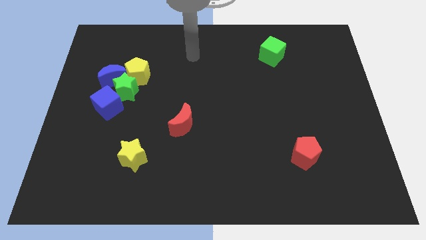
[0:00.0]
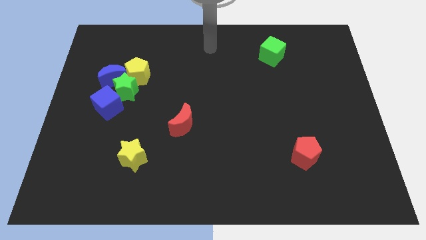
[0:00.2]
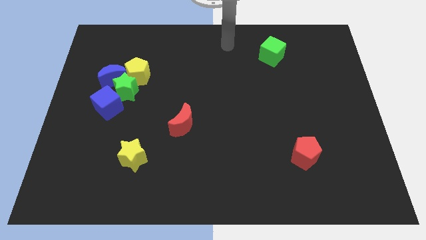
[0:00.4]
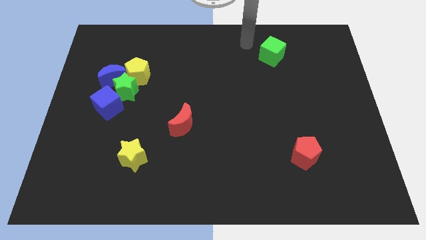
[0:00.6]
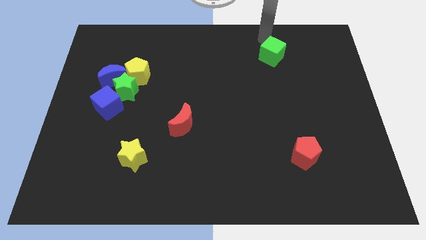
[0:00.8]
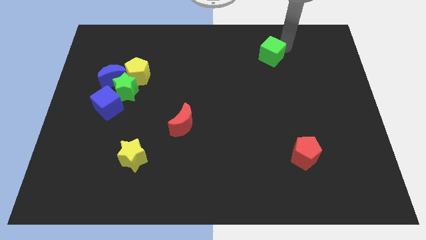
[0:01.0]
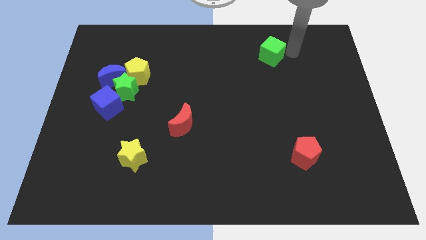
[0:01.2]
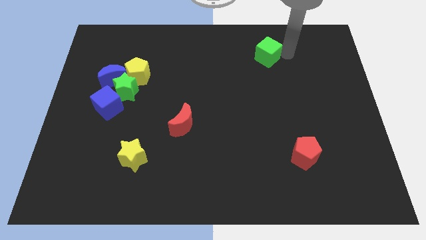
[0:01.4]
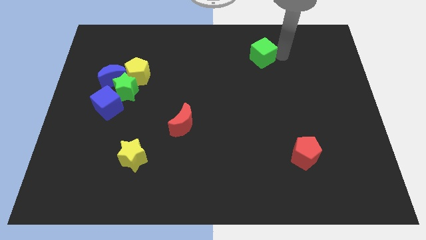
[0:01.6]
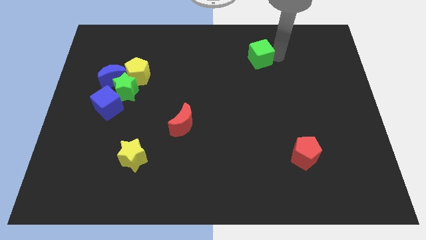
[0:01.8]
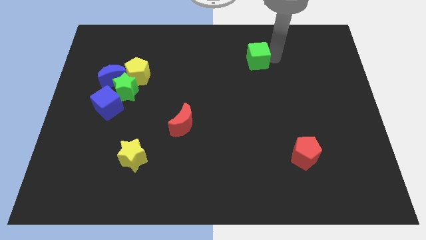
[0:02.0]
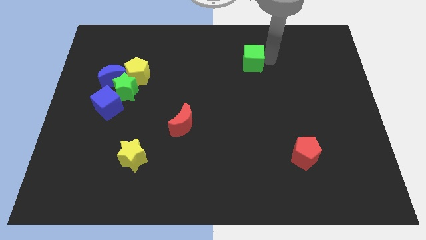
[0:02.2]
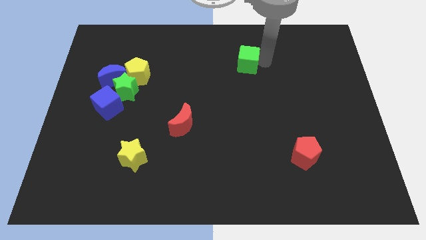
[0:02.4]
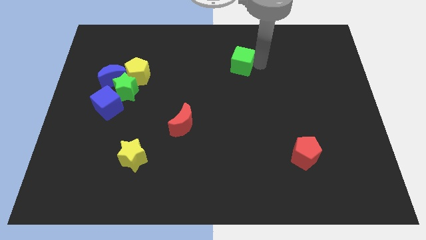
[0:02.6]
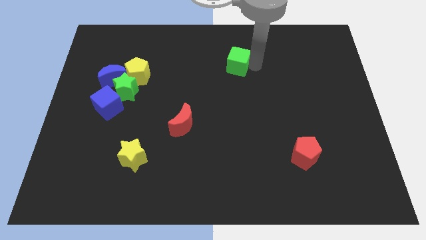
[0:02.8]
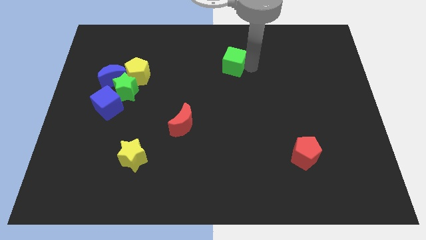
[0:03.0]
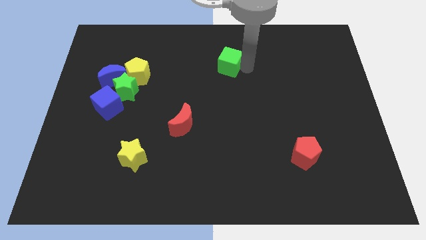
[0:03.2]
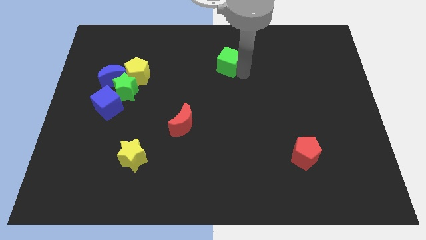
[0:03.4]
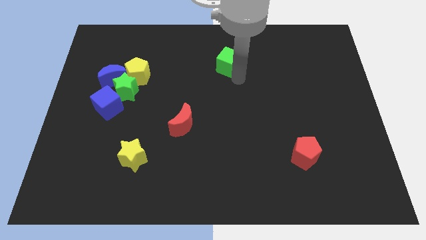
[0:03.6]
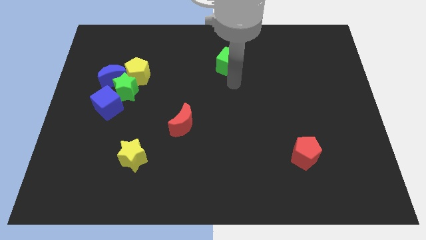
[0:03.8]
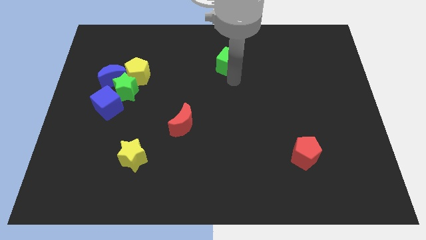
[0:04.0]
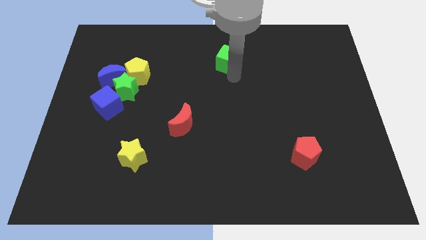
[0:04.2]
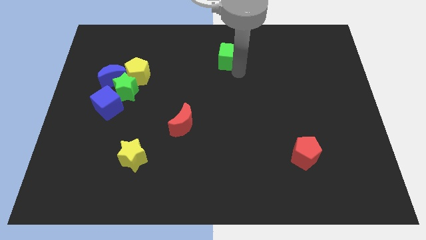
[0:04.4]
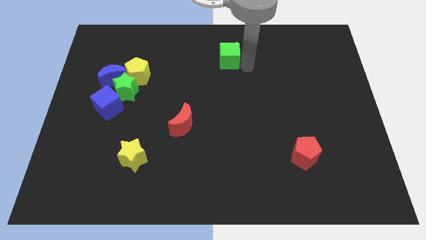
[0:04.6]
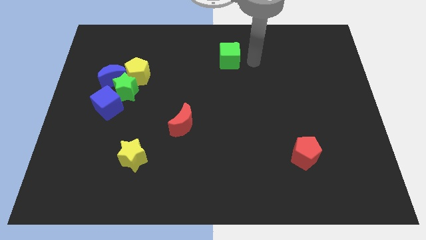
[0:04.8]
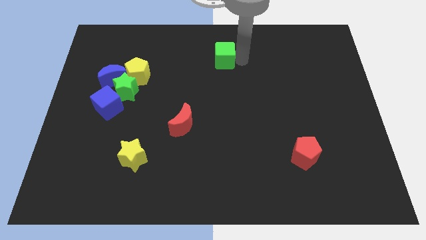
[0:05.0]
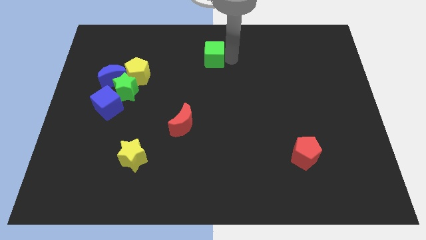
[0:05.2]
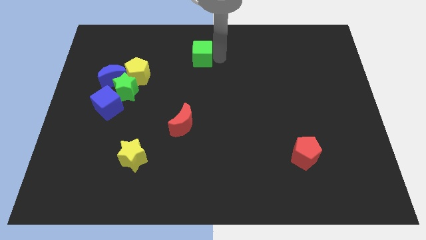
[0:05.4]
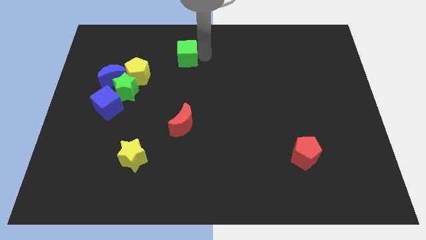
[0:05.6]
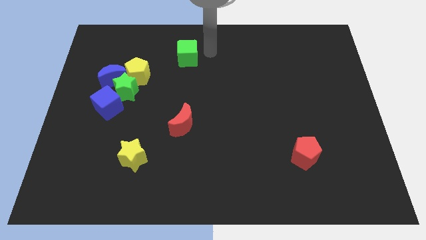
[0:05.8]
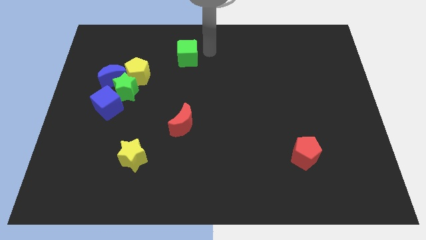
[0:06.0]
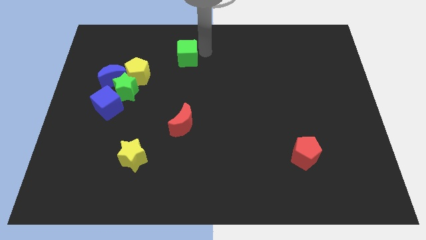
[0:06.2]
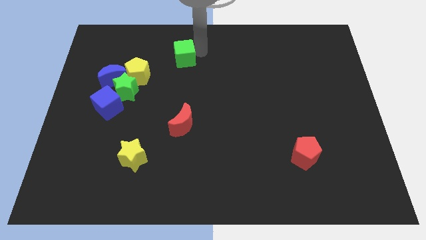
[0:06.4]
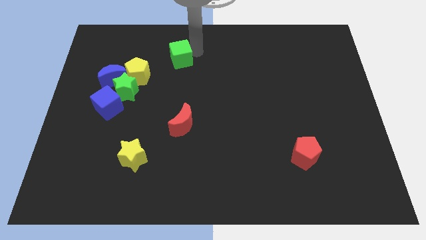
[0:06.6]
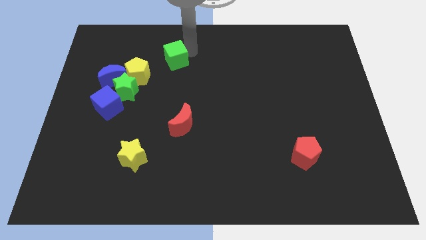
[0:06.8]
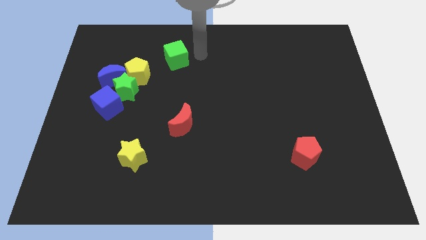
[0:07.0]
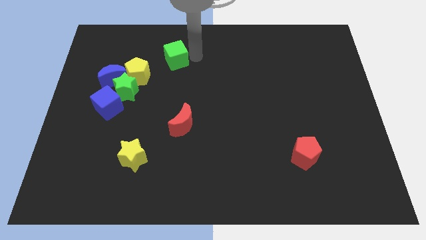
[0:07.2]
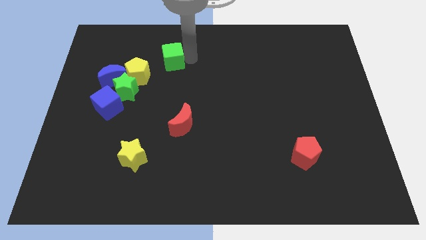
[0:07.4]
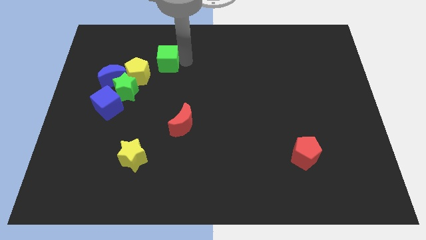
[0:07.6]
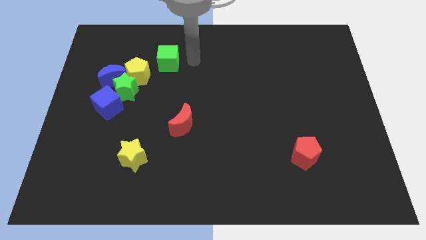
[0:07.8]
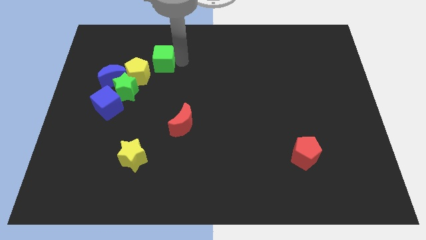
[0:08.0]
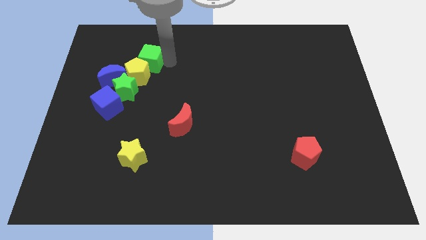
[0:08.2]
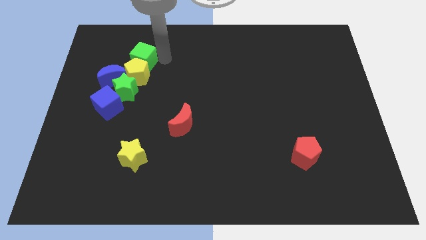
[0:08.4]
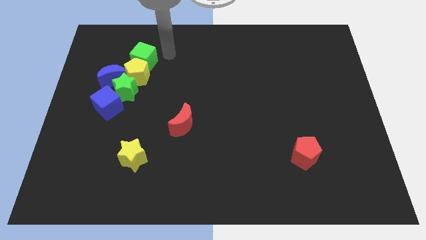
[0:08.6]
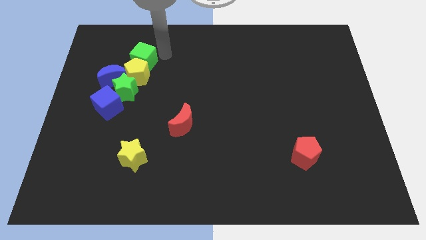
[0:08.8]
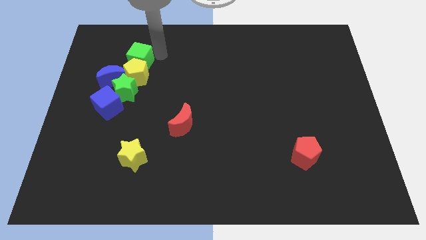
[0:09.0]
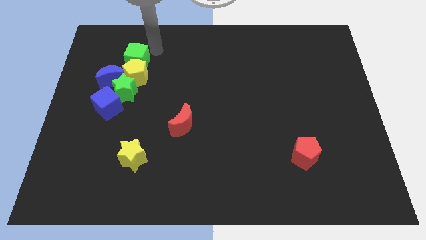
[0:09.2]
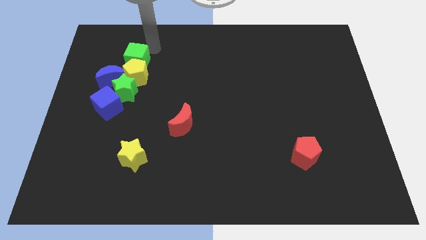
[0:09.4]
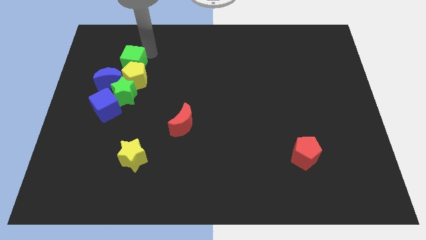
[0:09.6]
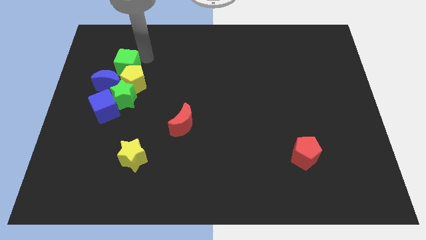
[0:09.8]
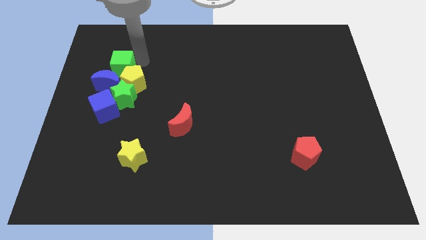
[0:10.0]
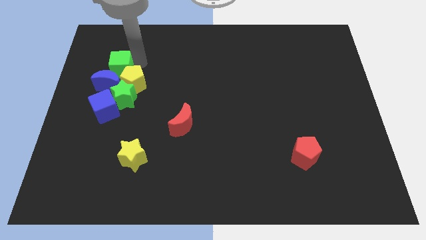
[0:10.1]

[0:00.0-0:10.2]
push the green cube next to the blue moon

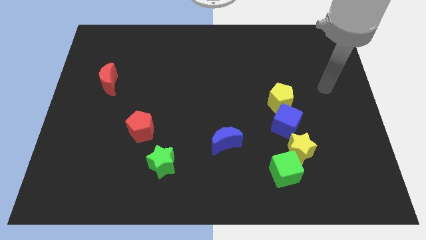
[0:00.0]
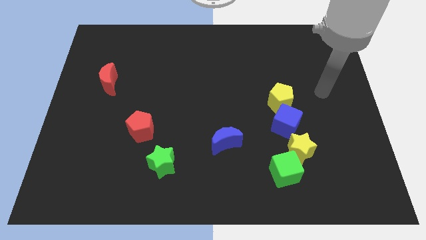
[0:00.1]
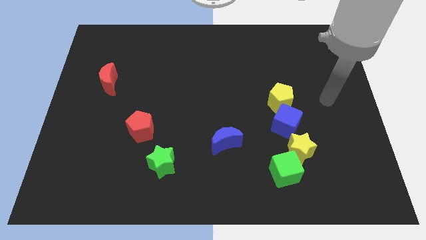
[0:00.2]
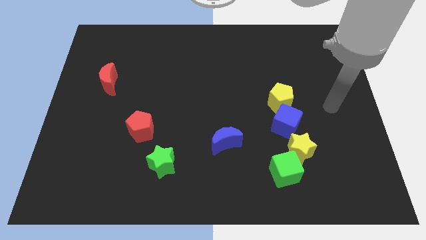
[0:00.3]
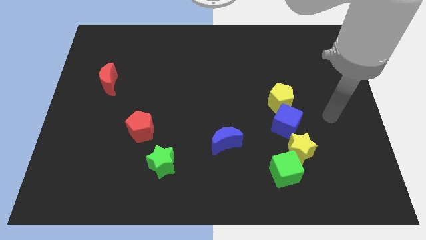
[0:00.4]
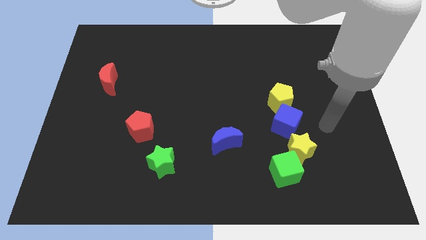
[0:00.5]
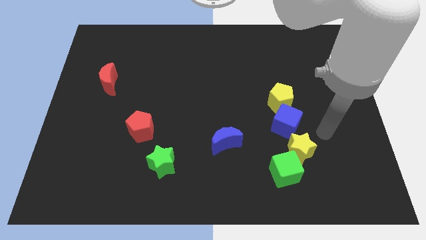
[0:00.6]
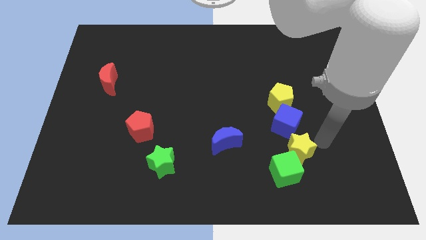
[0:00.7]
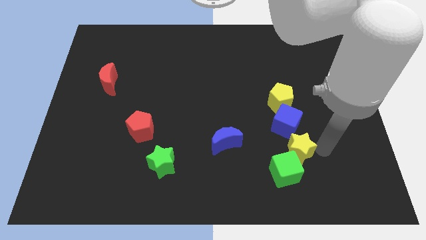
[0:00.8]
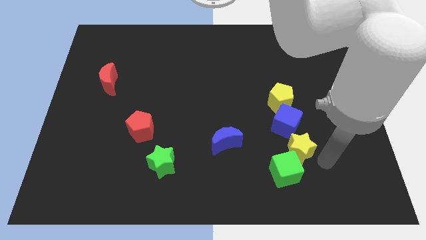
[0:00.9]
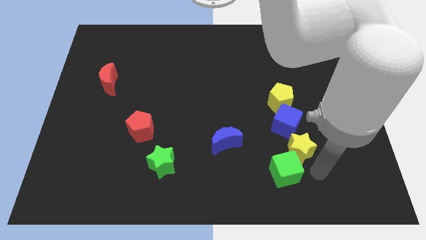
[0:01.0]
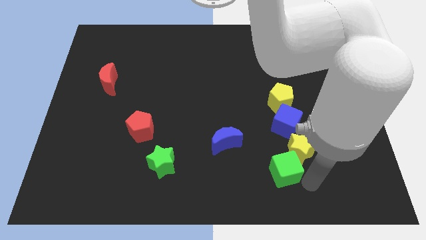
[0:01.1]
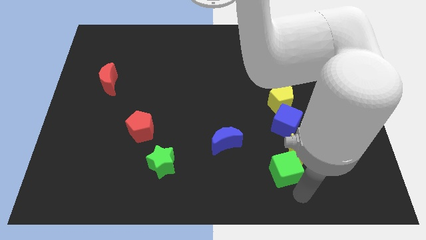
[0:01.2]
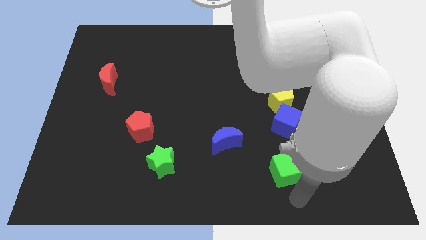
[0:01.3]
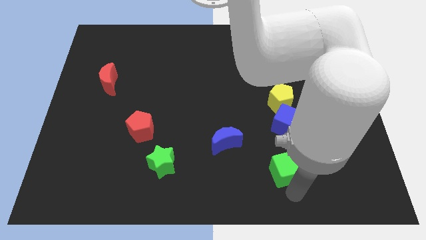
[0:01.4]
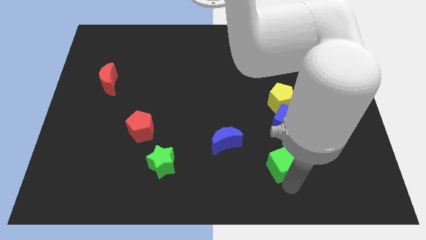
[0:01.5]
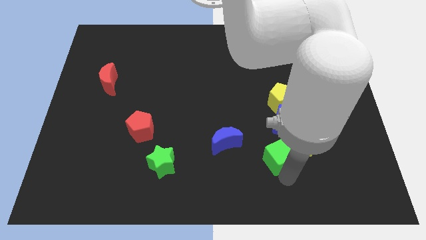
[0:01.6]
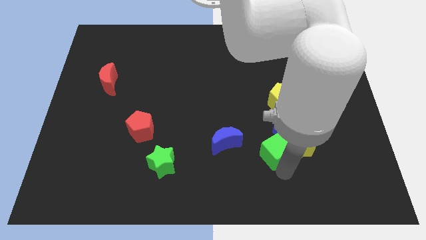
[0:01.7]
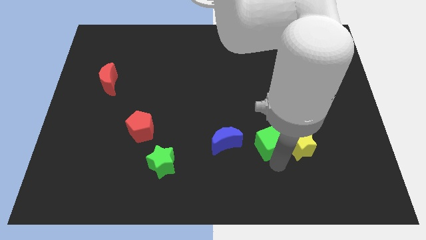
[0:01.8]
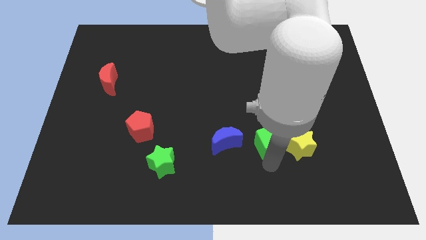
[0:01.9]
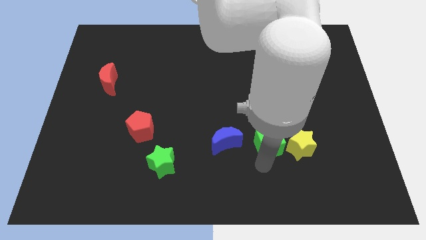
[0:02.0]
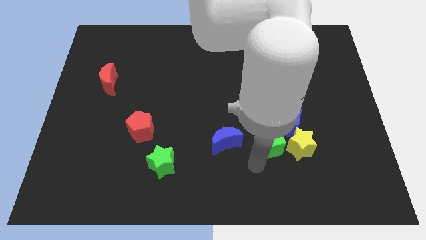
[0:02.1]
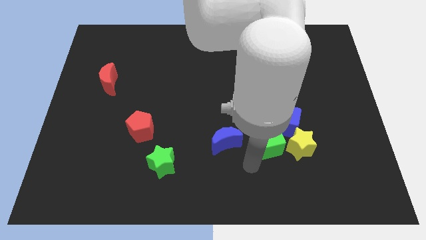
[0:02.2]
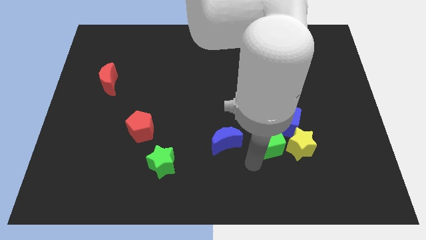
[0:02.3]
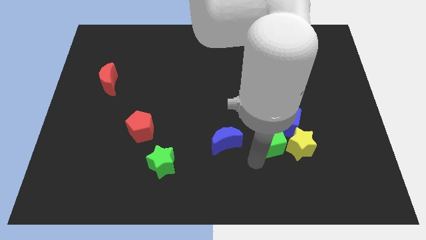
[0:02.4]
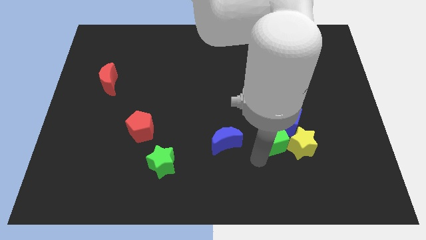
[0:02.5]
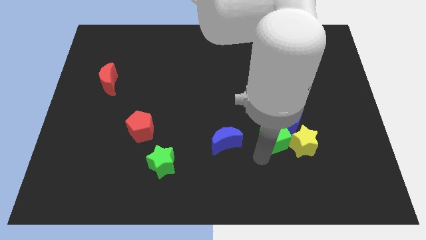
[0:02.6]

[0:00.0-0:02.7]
slide the green cube close to the blue cube
